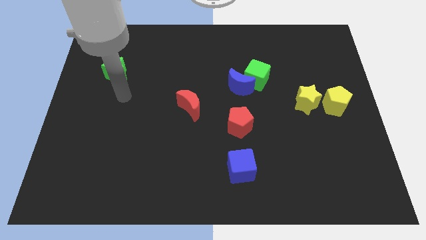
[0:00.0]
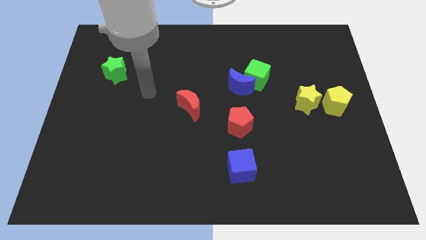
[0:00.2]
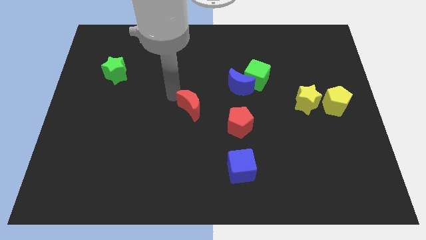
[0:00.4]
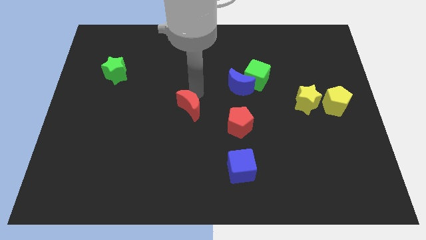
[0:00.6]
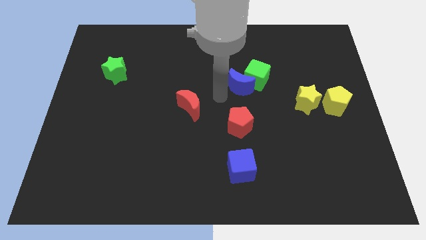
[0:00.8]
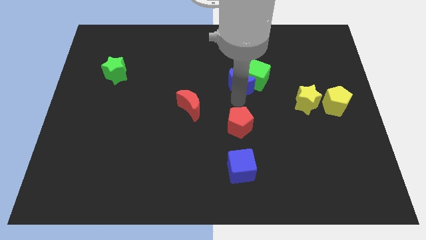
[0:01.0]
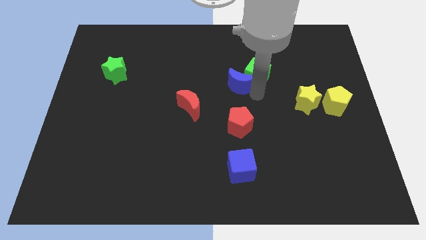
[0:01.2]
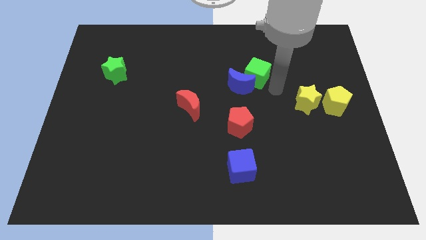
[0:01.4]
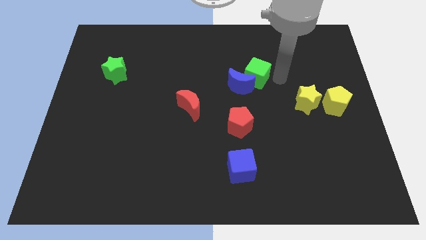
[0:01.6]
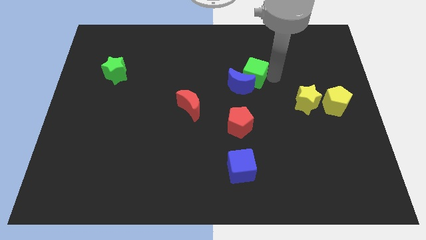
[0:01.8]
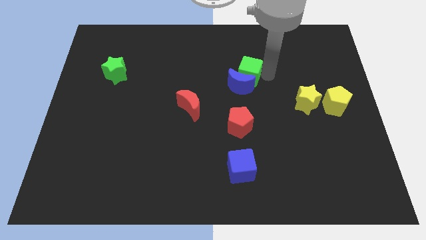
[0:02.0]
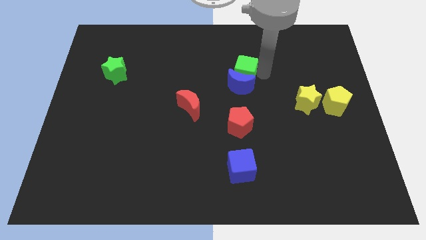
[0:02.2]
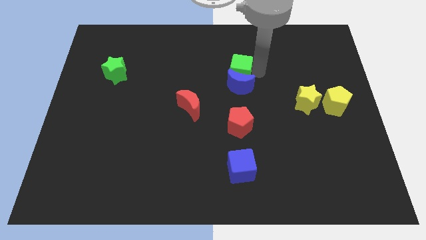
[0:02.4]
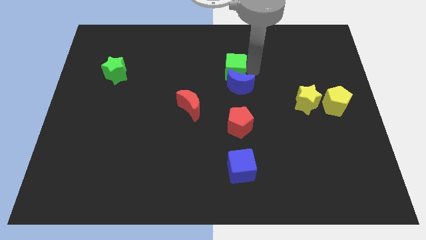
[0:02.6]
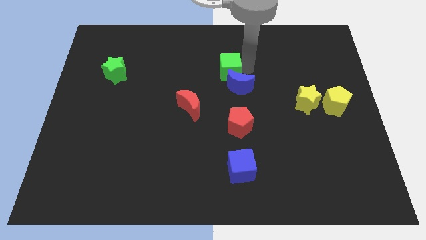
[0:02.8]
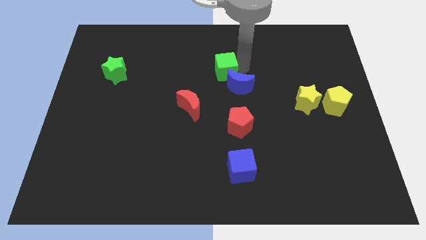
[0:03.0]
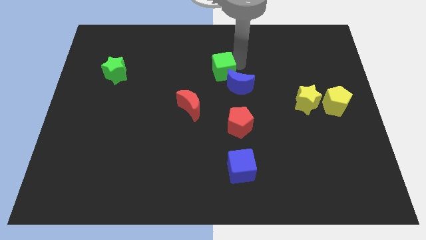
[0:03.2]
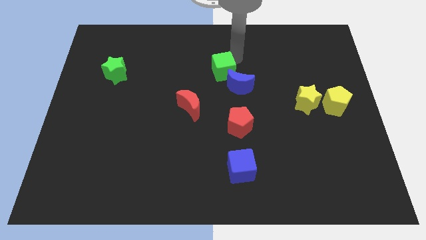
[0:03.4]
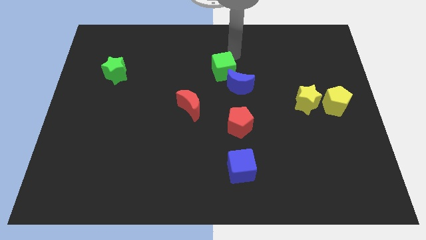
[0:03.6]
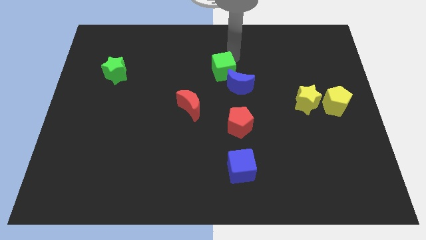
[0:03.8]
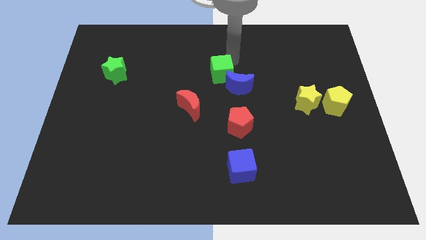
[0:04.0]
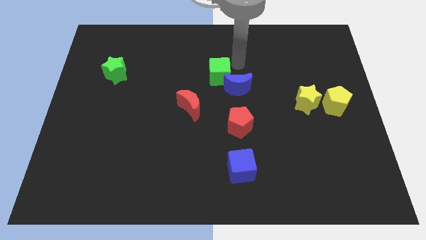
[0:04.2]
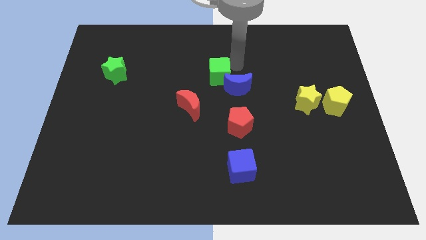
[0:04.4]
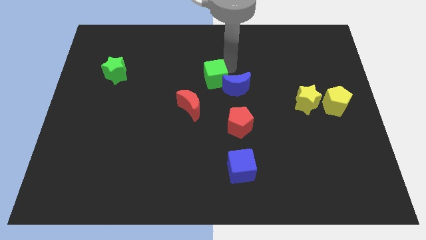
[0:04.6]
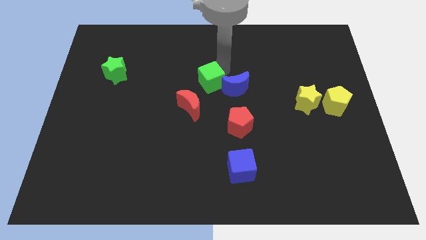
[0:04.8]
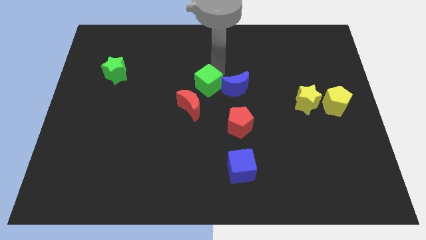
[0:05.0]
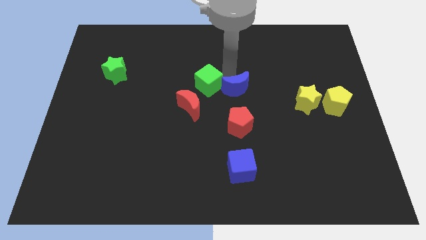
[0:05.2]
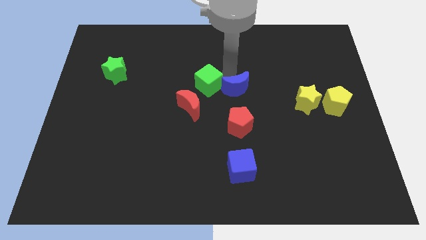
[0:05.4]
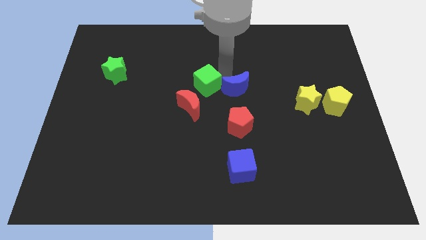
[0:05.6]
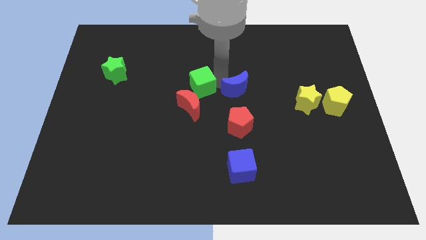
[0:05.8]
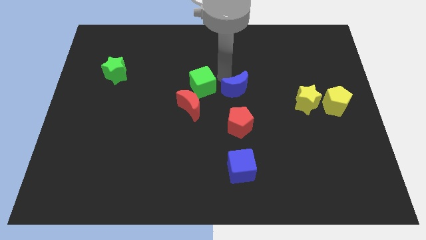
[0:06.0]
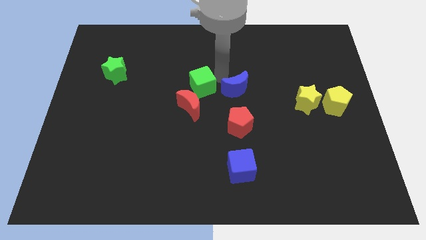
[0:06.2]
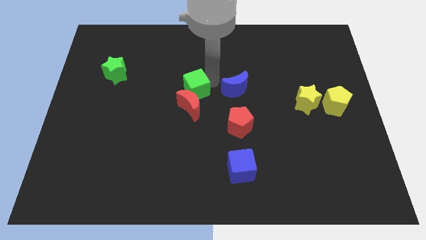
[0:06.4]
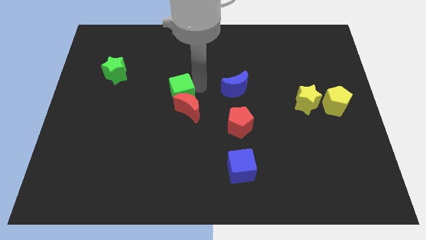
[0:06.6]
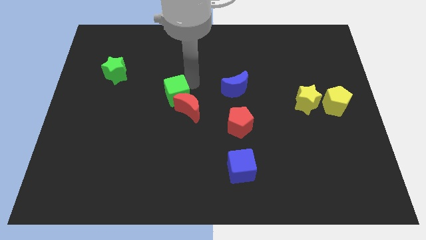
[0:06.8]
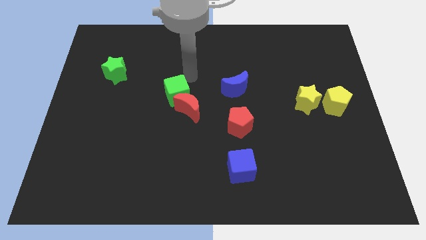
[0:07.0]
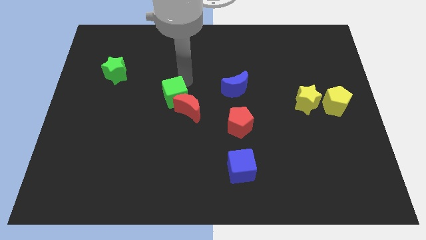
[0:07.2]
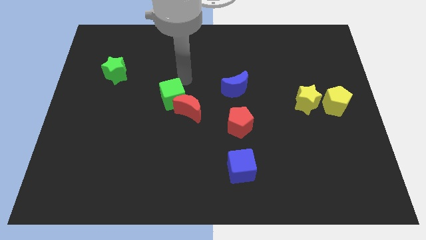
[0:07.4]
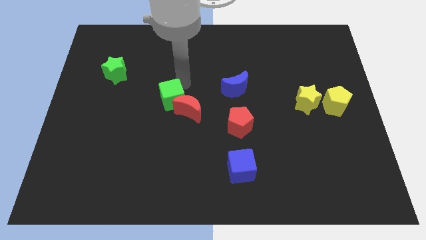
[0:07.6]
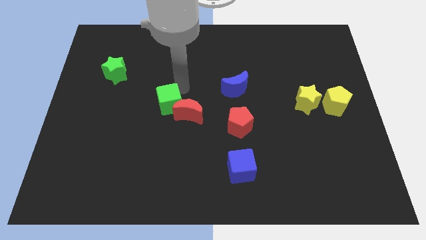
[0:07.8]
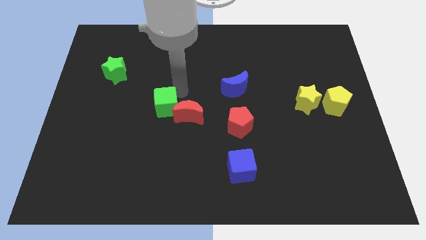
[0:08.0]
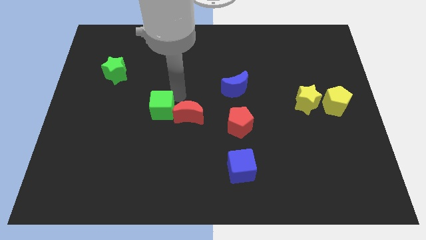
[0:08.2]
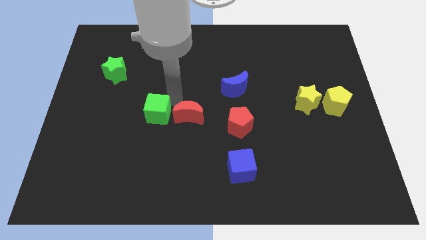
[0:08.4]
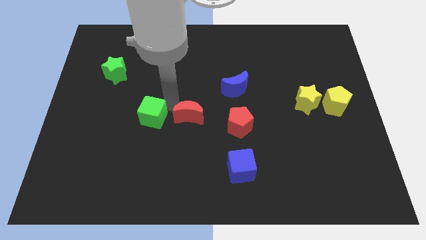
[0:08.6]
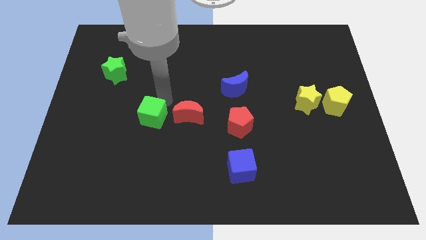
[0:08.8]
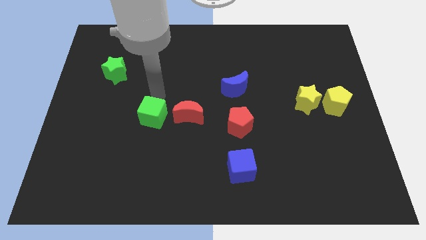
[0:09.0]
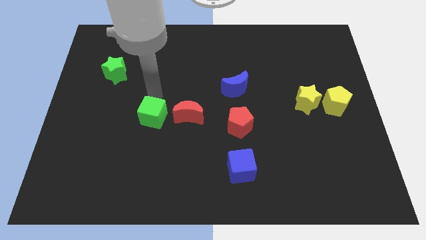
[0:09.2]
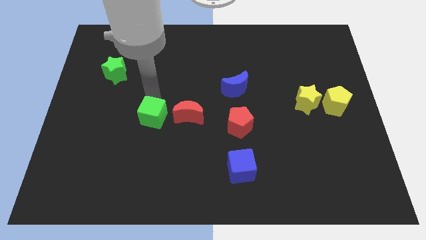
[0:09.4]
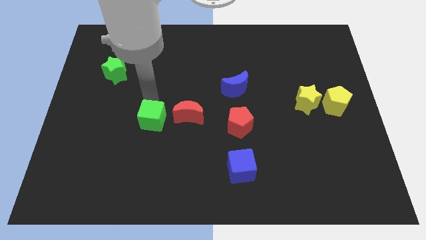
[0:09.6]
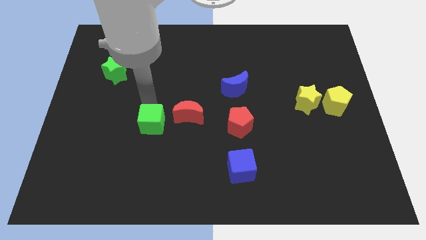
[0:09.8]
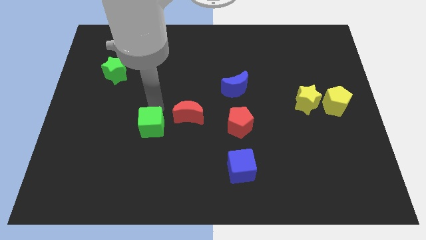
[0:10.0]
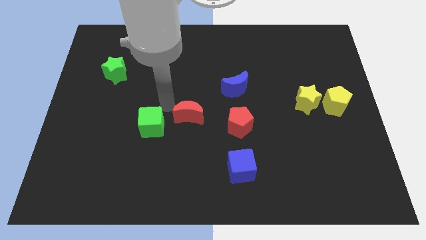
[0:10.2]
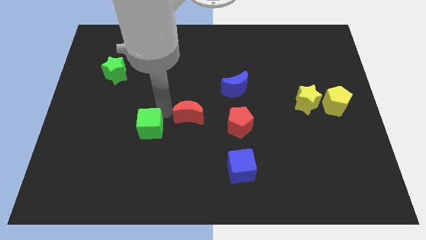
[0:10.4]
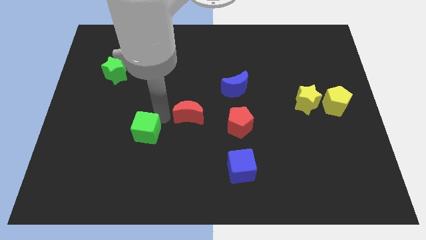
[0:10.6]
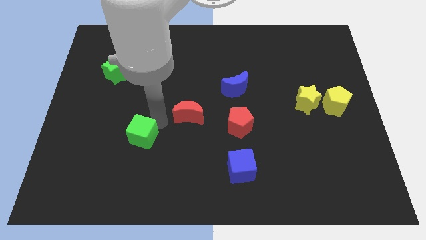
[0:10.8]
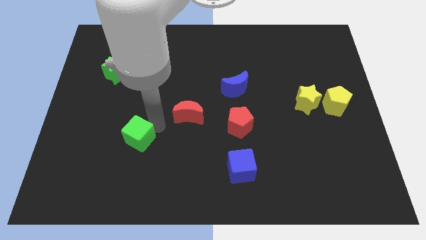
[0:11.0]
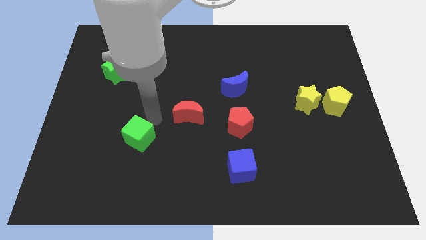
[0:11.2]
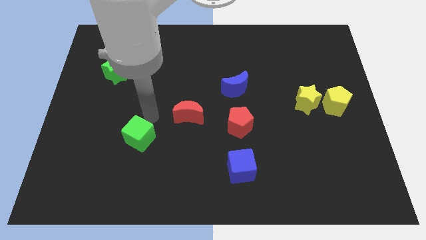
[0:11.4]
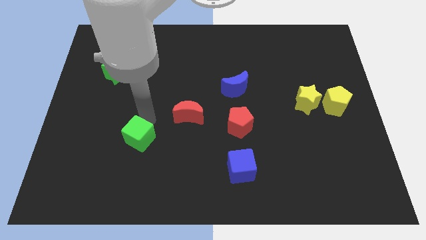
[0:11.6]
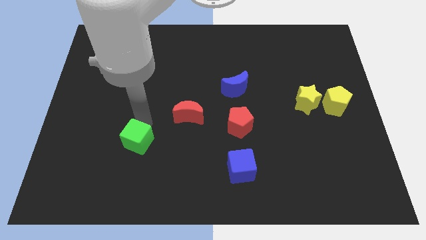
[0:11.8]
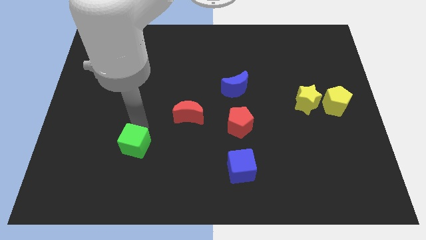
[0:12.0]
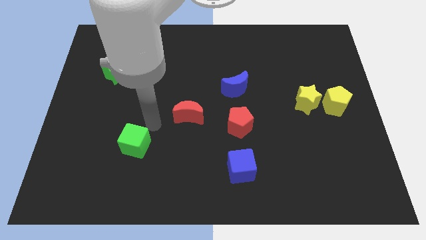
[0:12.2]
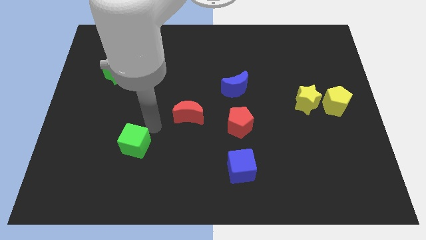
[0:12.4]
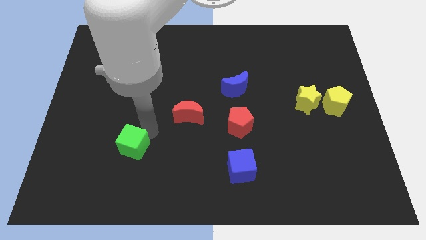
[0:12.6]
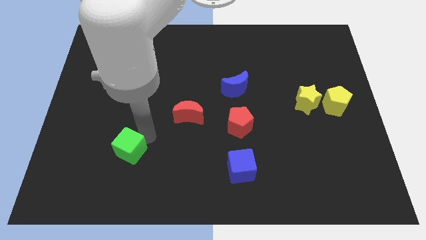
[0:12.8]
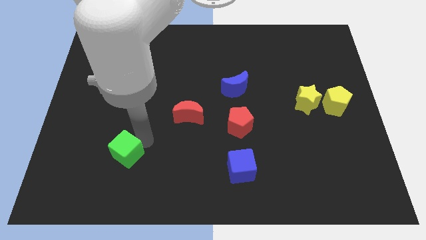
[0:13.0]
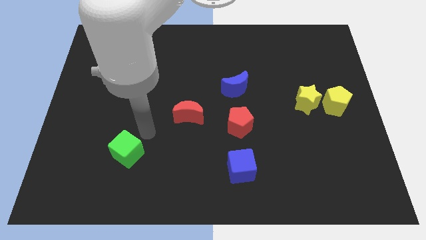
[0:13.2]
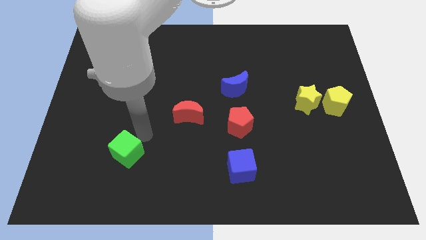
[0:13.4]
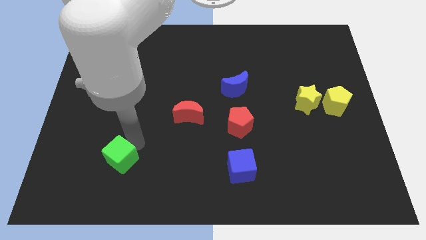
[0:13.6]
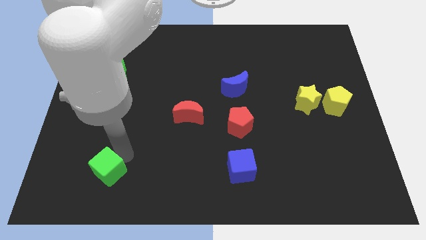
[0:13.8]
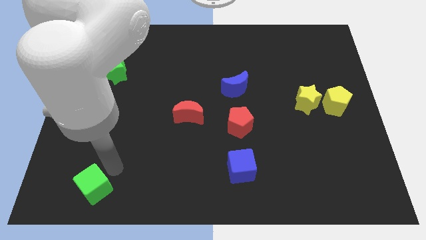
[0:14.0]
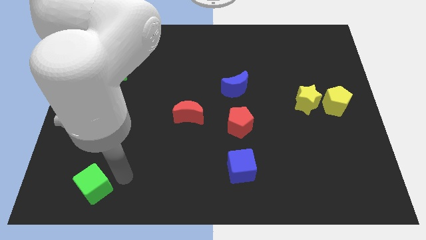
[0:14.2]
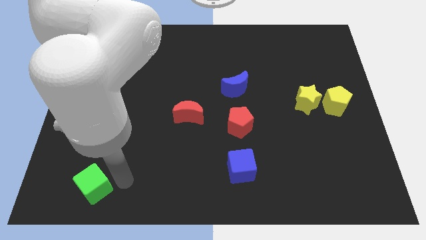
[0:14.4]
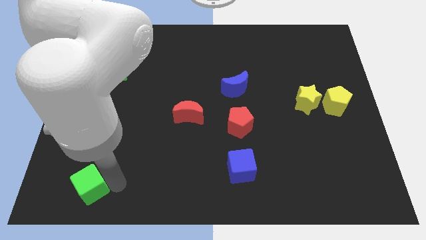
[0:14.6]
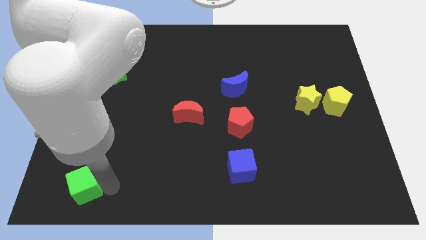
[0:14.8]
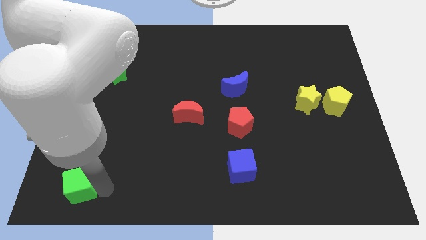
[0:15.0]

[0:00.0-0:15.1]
slide the green cube to the bottom left
